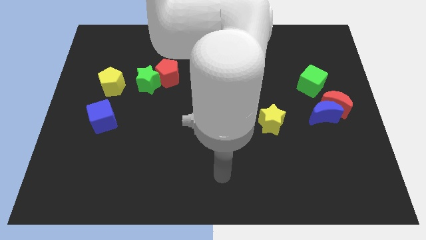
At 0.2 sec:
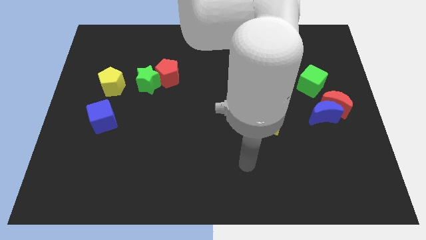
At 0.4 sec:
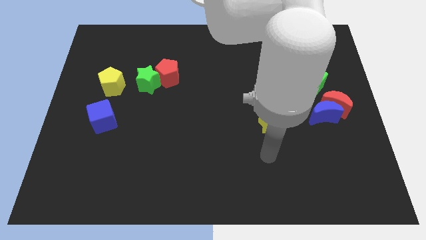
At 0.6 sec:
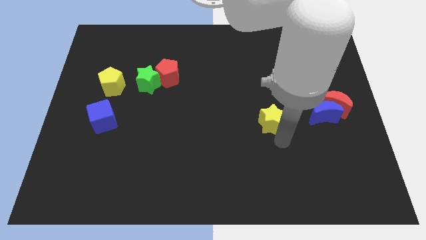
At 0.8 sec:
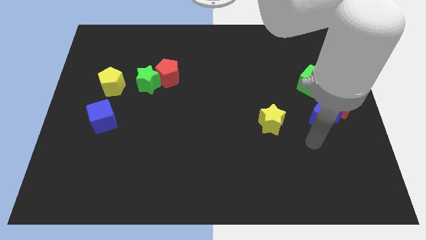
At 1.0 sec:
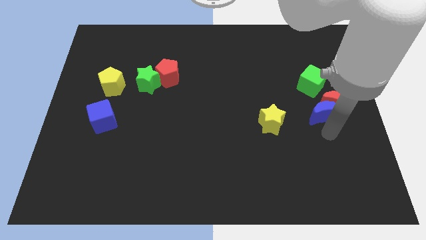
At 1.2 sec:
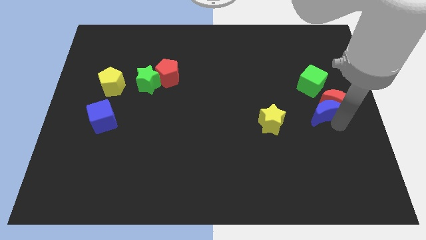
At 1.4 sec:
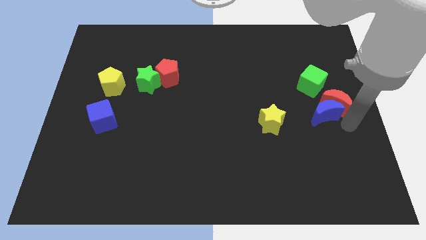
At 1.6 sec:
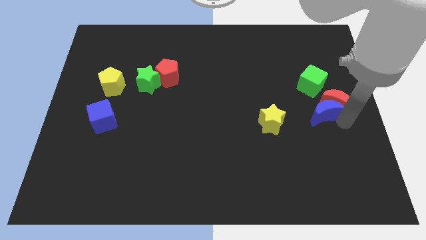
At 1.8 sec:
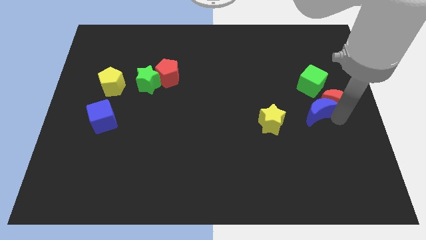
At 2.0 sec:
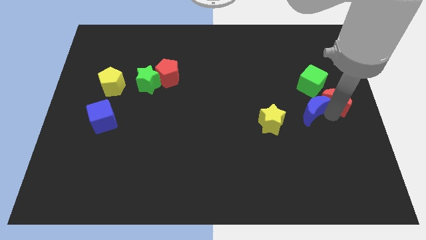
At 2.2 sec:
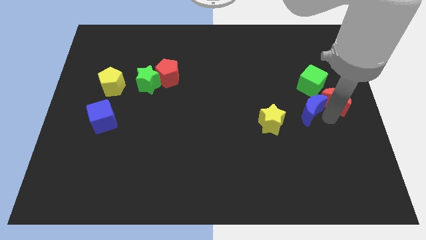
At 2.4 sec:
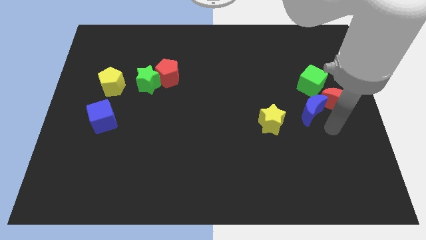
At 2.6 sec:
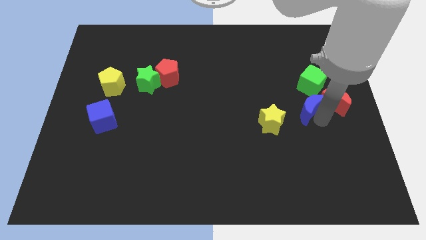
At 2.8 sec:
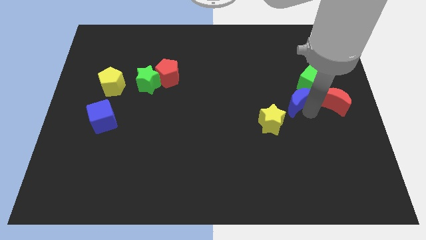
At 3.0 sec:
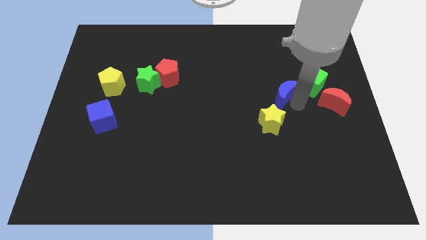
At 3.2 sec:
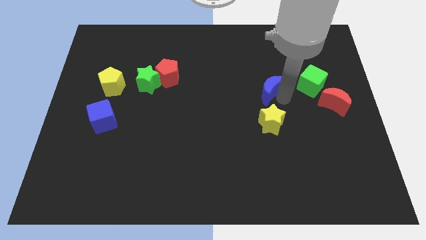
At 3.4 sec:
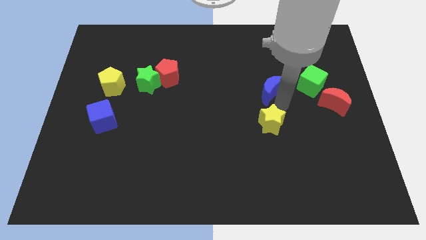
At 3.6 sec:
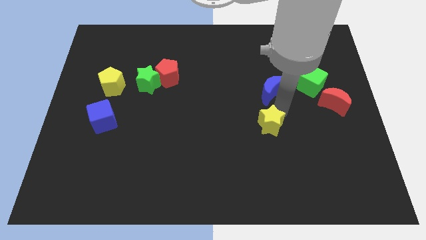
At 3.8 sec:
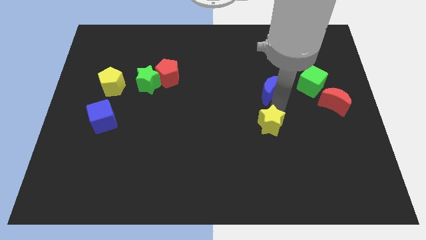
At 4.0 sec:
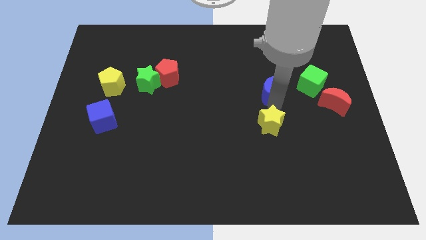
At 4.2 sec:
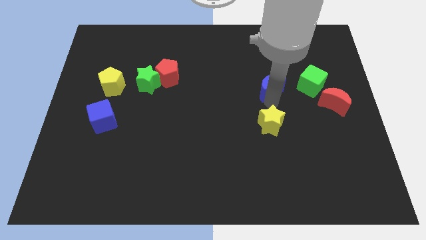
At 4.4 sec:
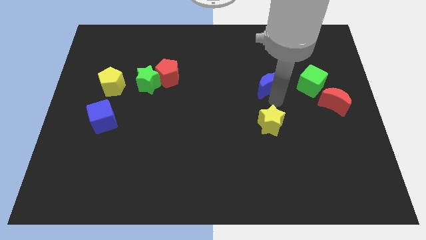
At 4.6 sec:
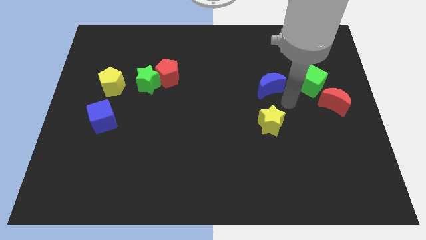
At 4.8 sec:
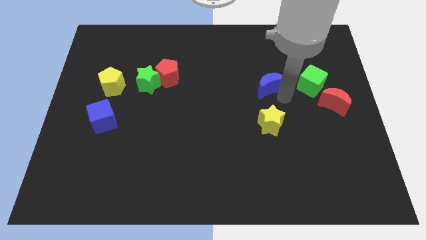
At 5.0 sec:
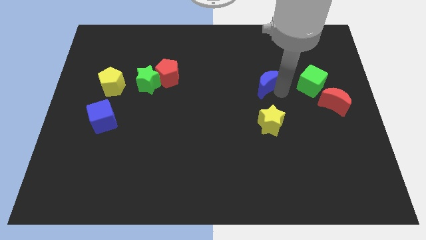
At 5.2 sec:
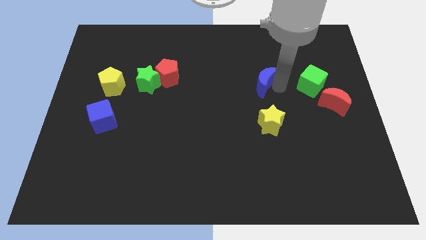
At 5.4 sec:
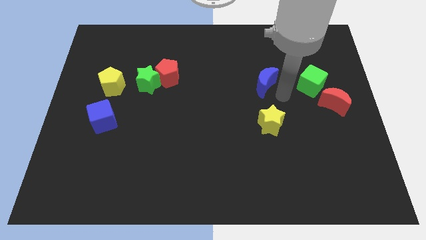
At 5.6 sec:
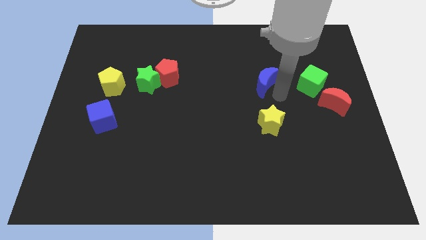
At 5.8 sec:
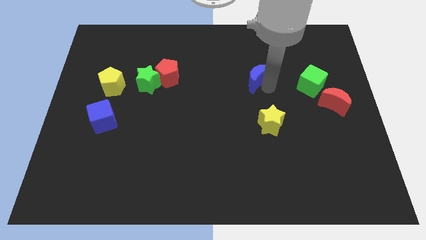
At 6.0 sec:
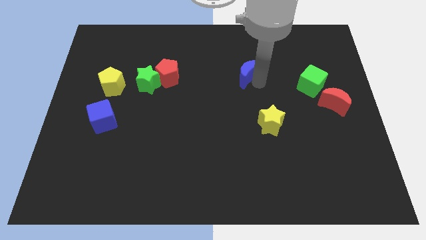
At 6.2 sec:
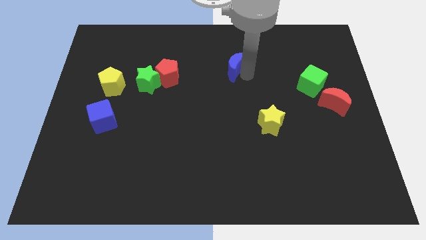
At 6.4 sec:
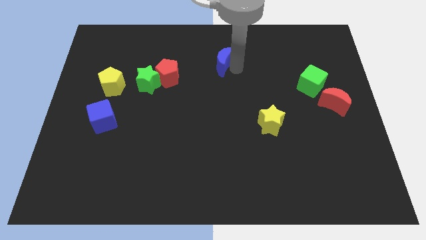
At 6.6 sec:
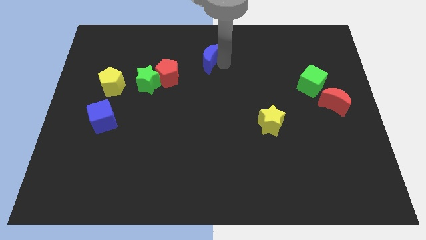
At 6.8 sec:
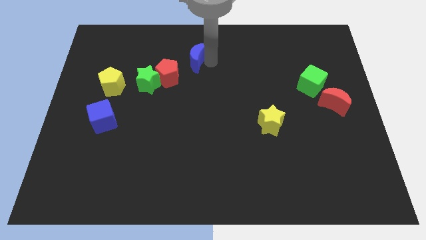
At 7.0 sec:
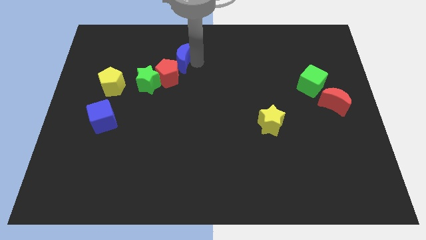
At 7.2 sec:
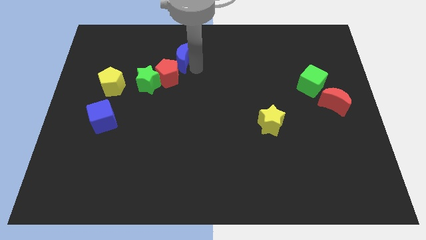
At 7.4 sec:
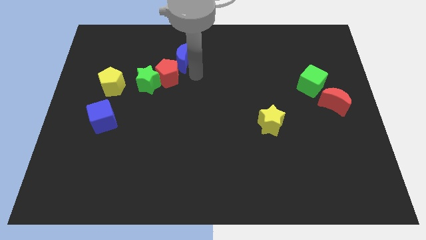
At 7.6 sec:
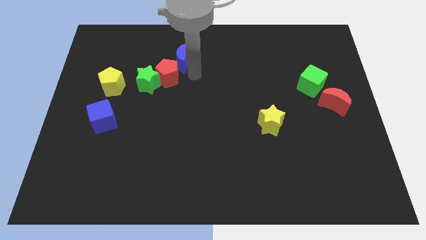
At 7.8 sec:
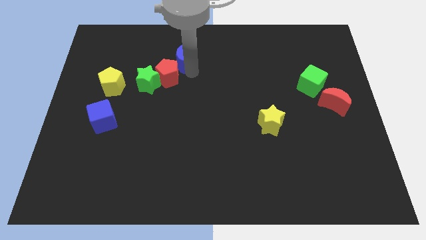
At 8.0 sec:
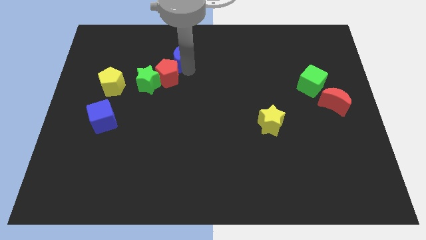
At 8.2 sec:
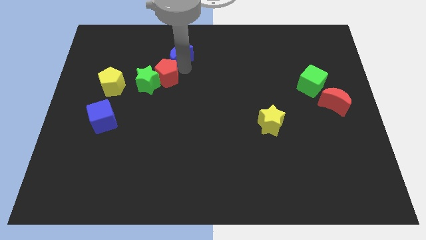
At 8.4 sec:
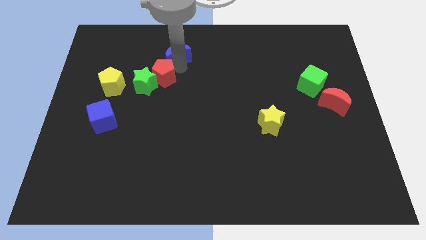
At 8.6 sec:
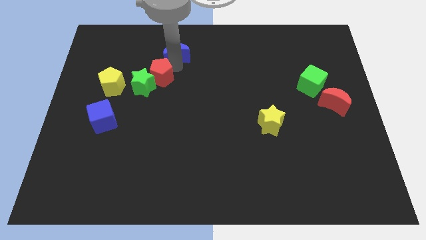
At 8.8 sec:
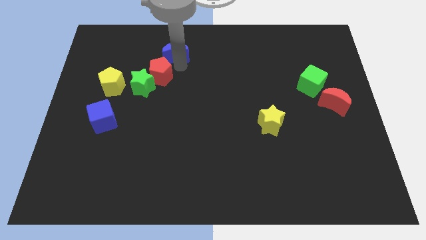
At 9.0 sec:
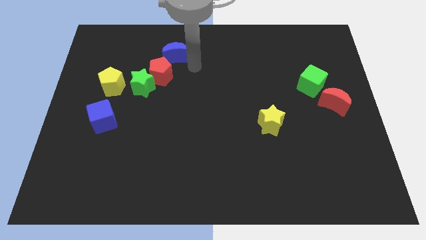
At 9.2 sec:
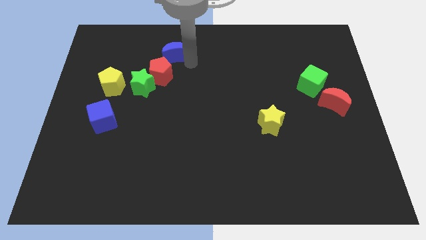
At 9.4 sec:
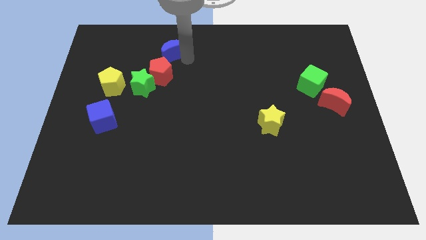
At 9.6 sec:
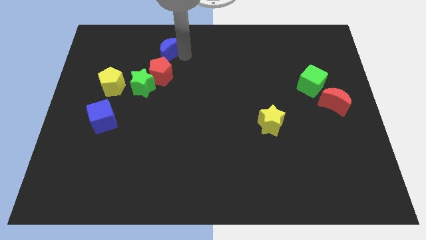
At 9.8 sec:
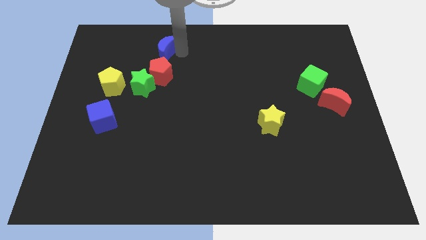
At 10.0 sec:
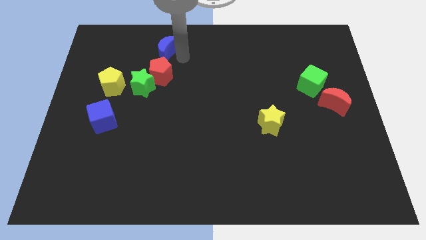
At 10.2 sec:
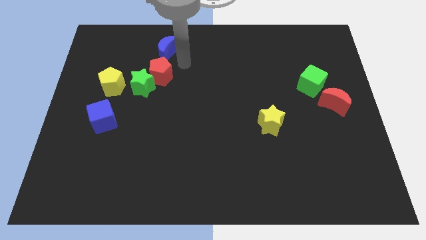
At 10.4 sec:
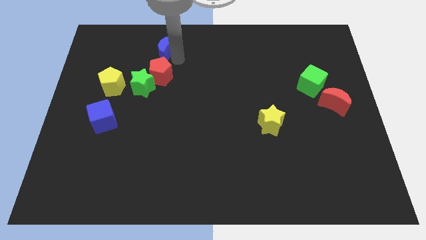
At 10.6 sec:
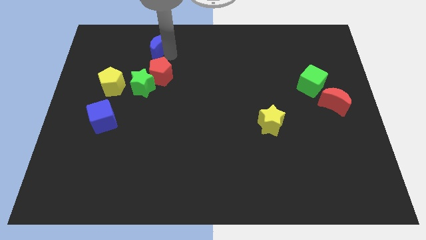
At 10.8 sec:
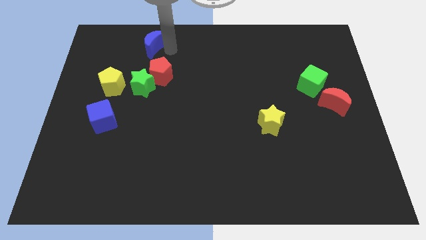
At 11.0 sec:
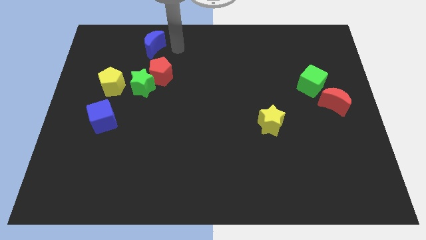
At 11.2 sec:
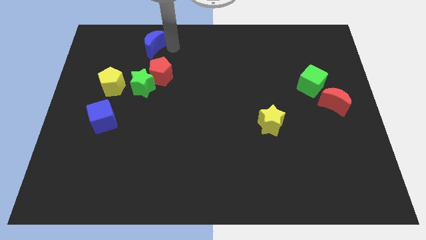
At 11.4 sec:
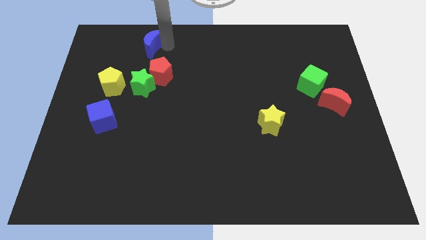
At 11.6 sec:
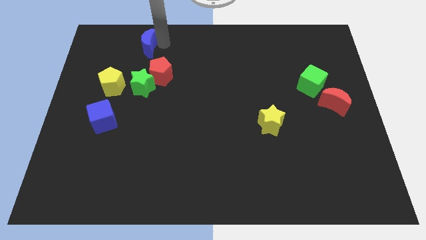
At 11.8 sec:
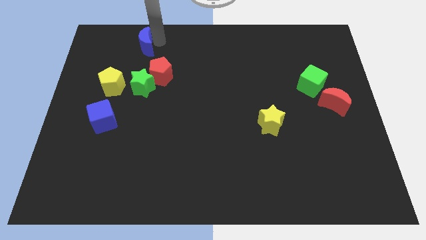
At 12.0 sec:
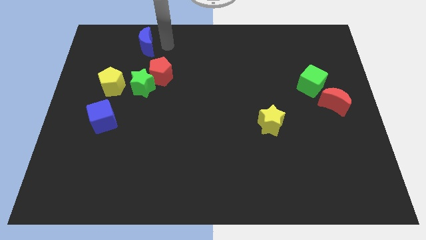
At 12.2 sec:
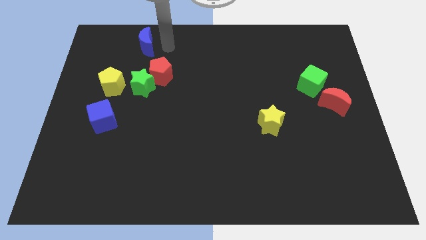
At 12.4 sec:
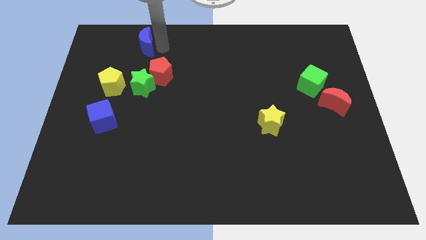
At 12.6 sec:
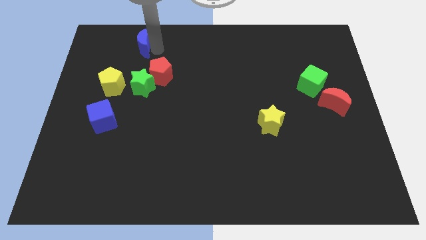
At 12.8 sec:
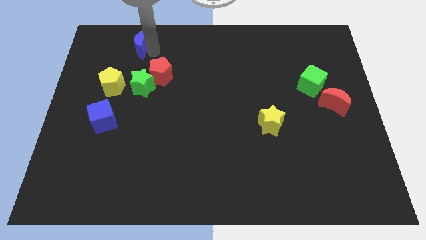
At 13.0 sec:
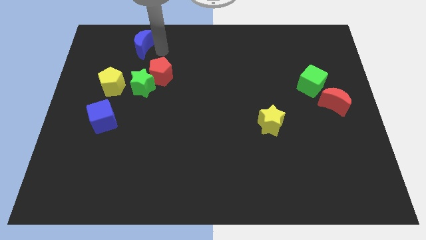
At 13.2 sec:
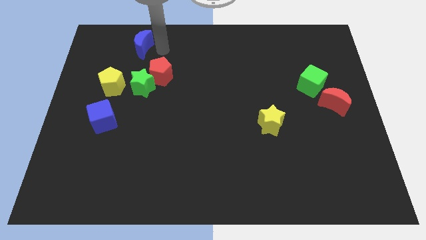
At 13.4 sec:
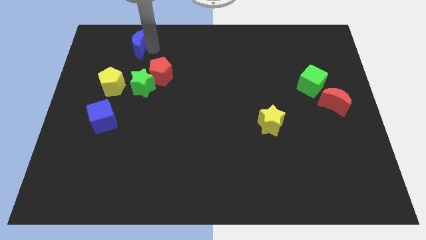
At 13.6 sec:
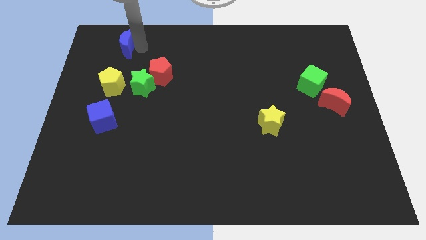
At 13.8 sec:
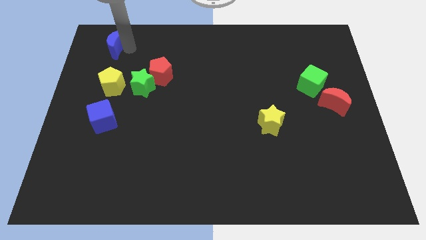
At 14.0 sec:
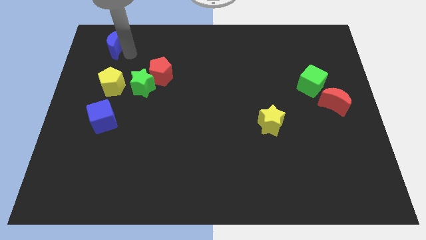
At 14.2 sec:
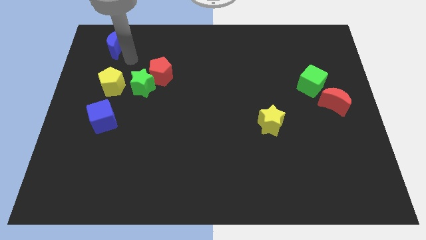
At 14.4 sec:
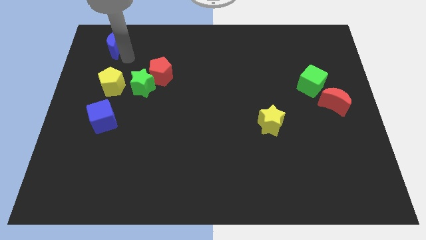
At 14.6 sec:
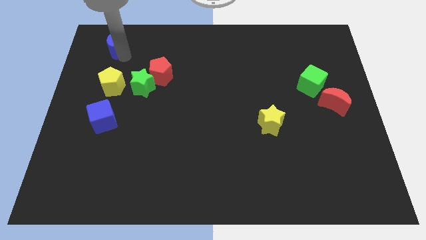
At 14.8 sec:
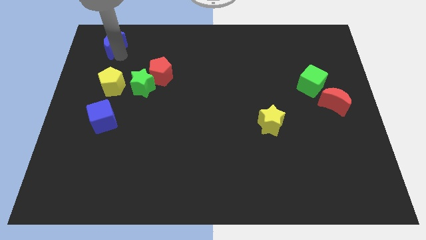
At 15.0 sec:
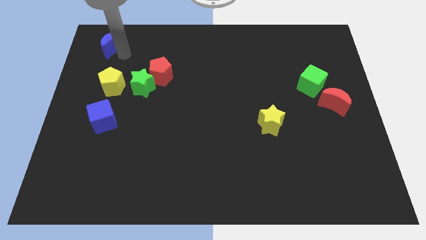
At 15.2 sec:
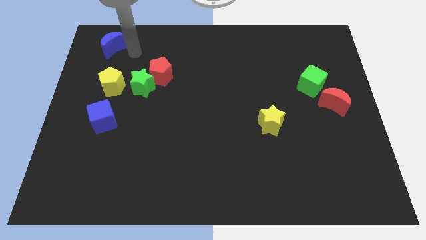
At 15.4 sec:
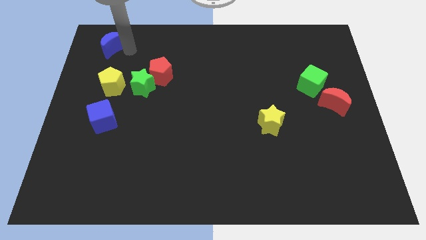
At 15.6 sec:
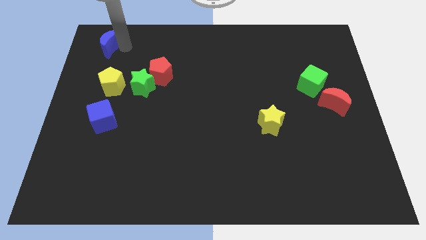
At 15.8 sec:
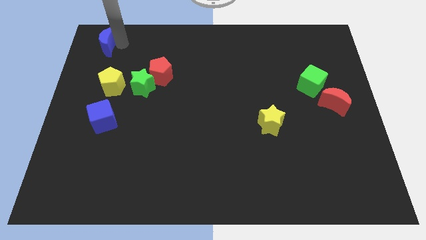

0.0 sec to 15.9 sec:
put the blue moon to the upper left corner
